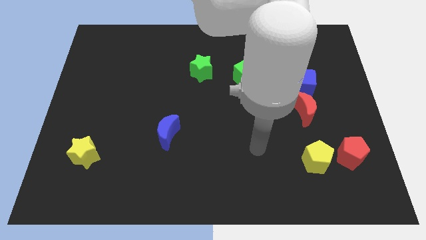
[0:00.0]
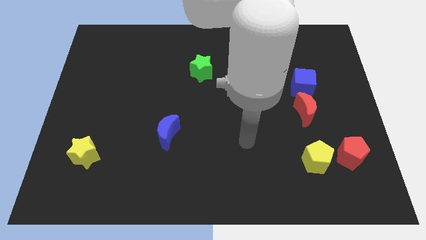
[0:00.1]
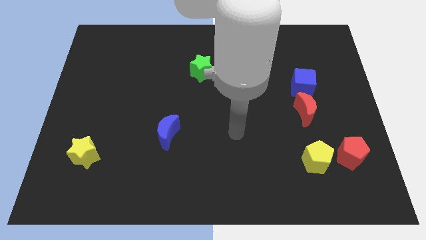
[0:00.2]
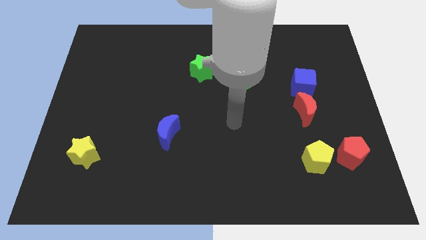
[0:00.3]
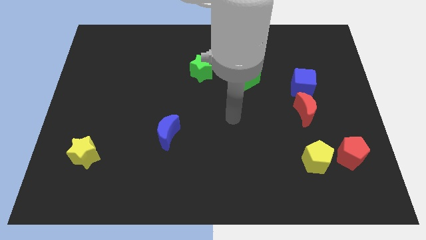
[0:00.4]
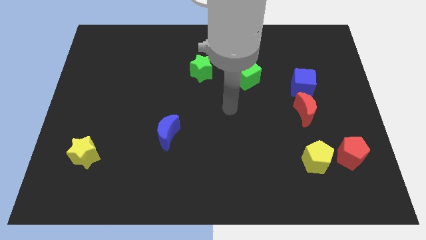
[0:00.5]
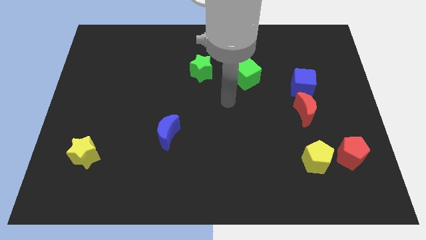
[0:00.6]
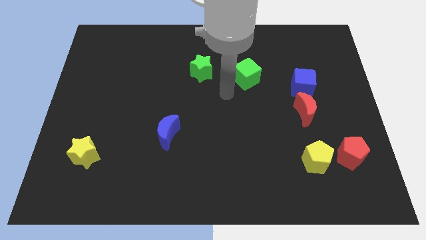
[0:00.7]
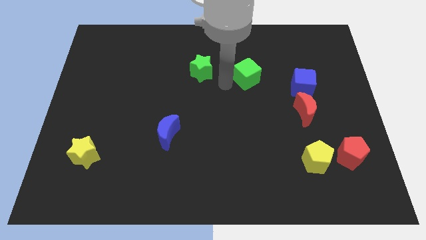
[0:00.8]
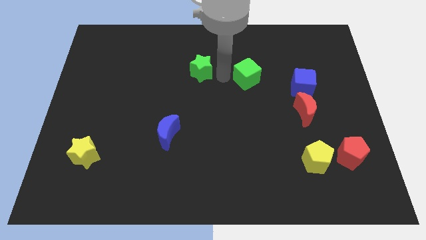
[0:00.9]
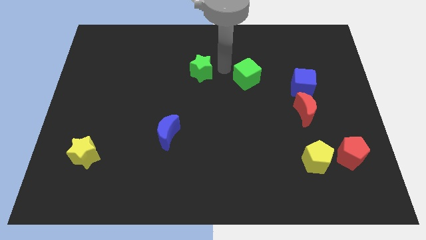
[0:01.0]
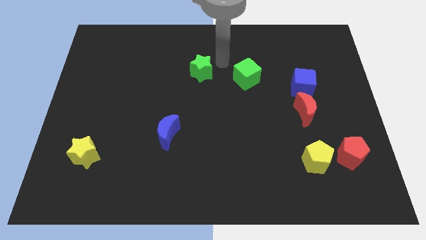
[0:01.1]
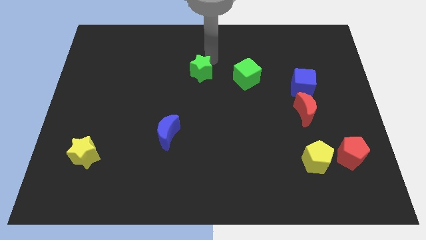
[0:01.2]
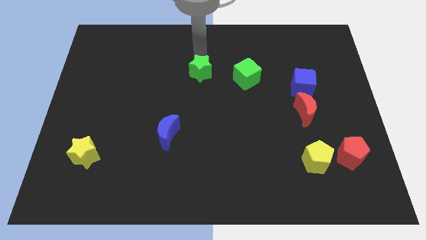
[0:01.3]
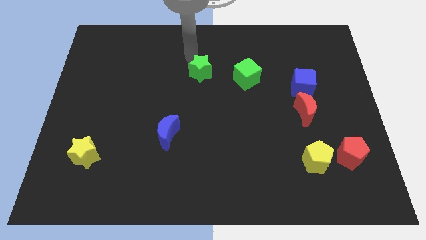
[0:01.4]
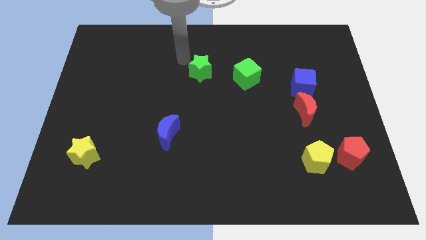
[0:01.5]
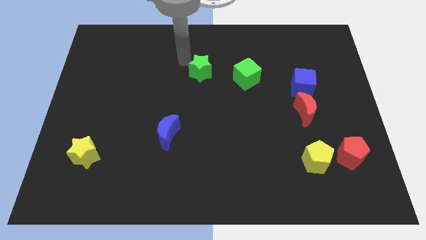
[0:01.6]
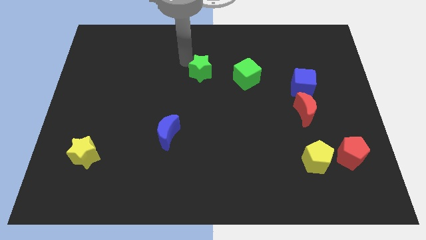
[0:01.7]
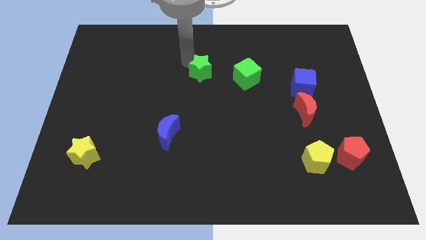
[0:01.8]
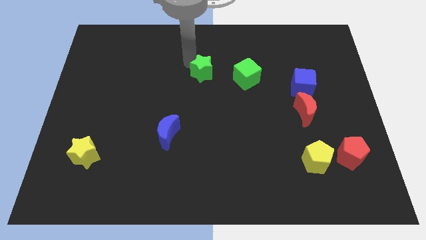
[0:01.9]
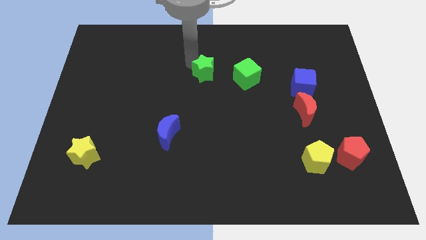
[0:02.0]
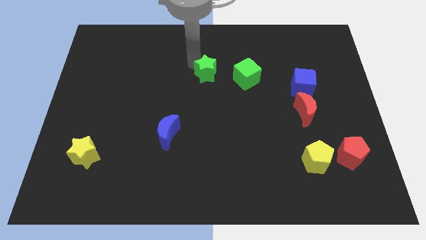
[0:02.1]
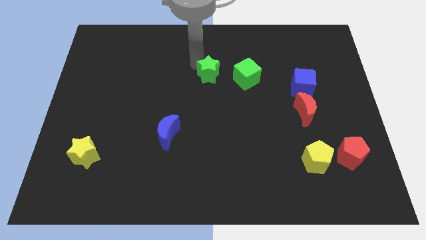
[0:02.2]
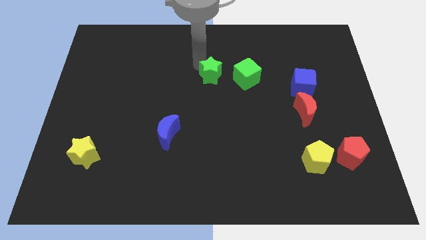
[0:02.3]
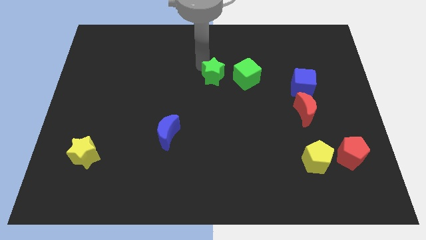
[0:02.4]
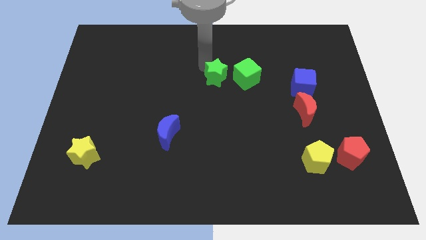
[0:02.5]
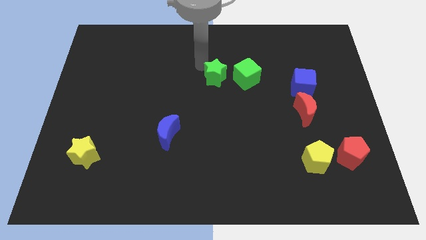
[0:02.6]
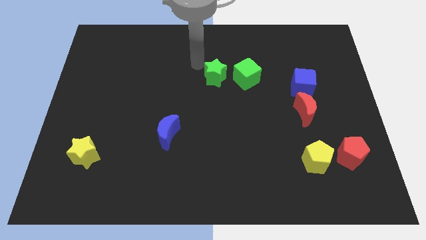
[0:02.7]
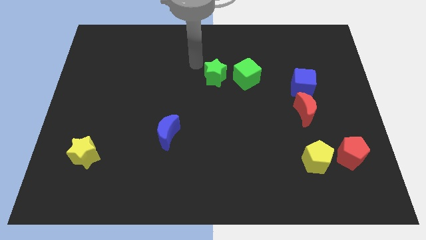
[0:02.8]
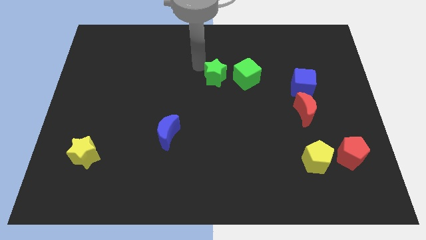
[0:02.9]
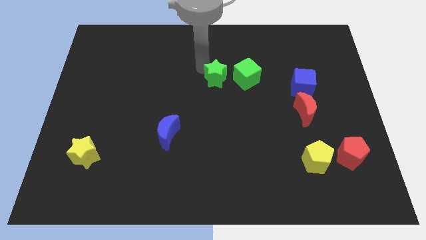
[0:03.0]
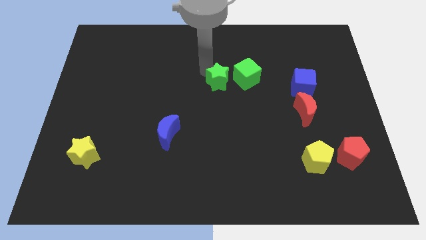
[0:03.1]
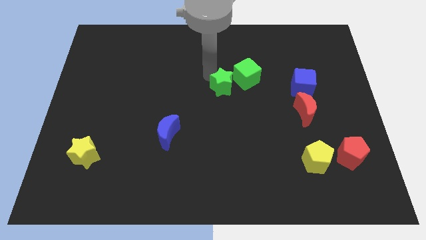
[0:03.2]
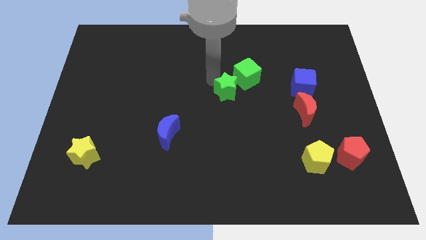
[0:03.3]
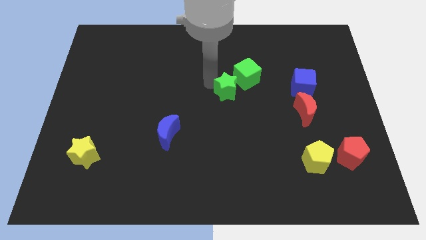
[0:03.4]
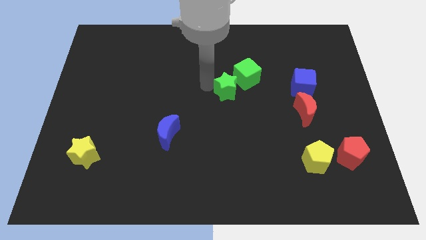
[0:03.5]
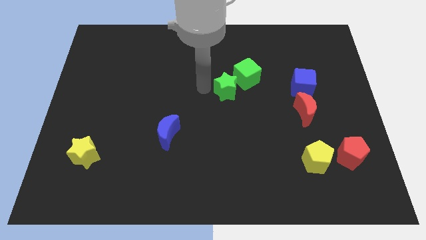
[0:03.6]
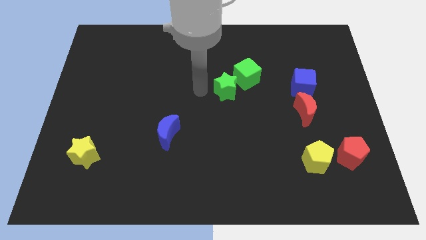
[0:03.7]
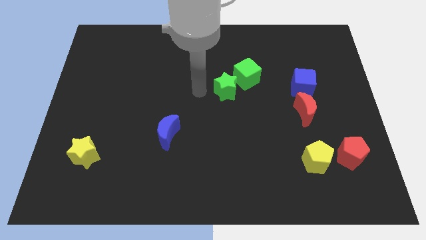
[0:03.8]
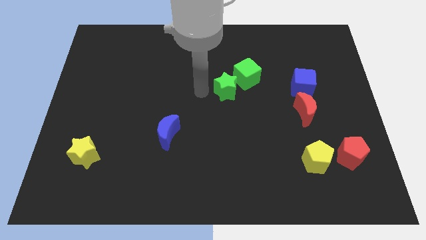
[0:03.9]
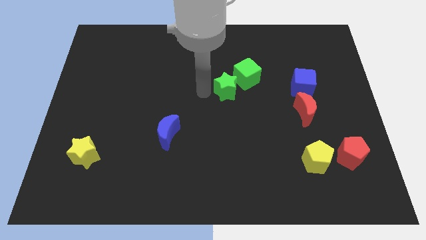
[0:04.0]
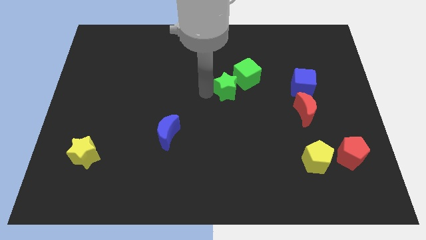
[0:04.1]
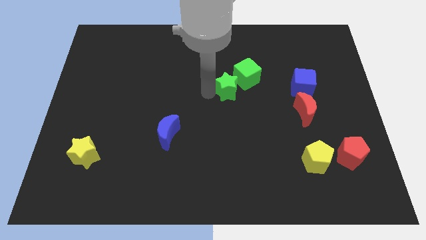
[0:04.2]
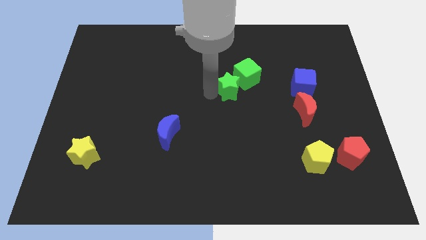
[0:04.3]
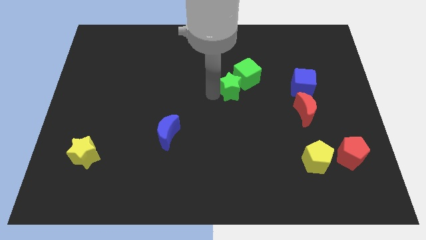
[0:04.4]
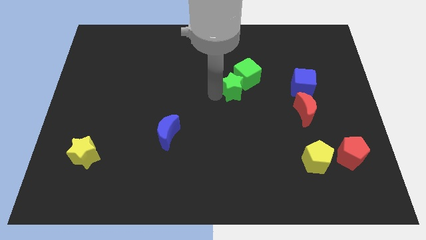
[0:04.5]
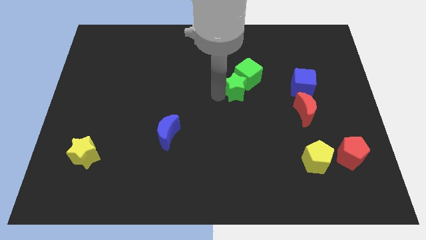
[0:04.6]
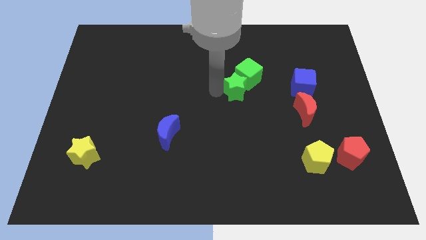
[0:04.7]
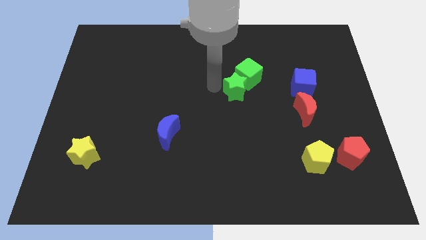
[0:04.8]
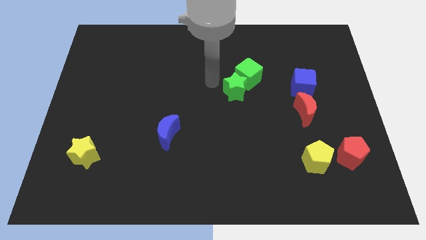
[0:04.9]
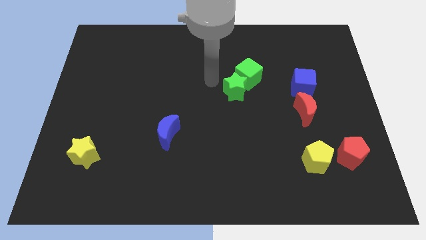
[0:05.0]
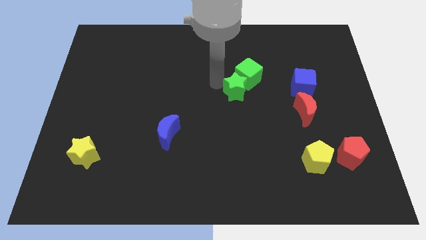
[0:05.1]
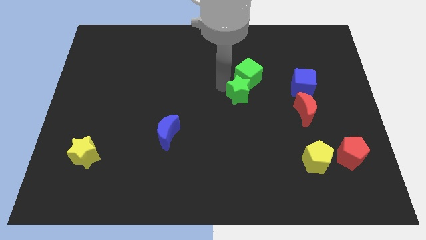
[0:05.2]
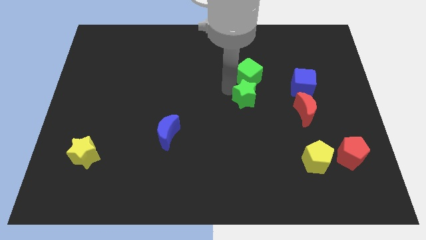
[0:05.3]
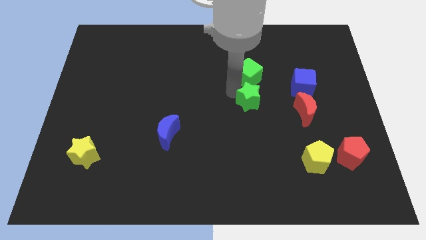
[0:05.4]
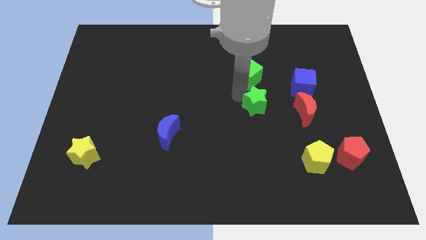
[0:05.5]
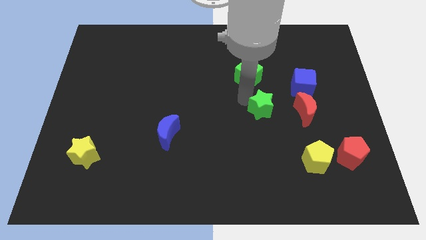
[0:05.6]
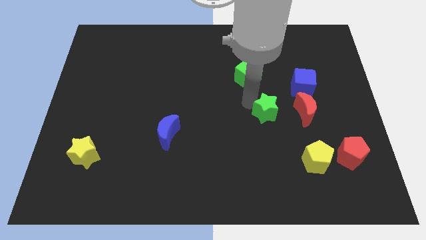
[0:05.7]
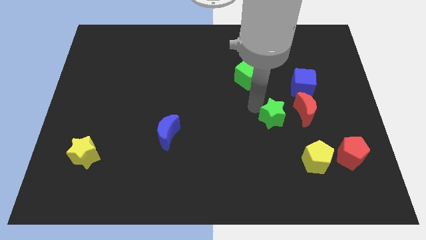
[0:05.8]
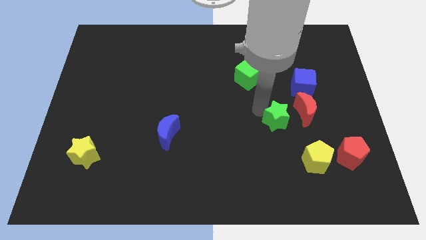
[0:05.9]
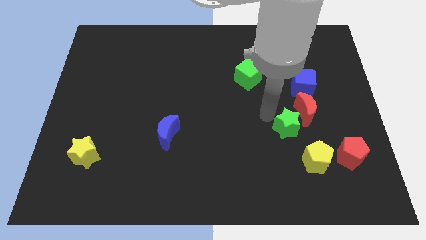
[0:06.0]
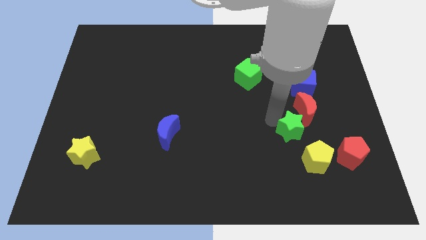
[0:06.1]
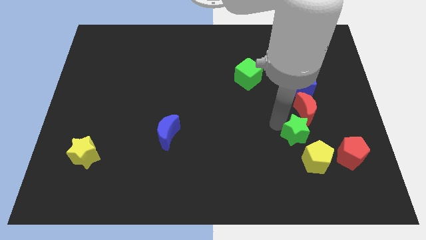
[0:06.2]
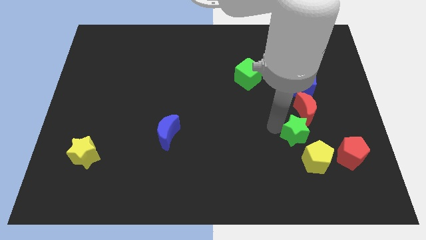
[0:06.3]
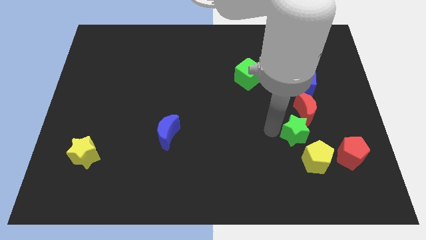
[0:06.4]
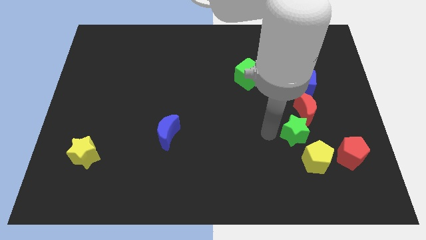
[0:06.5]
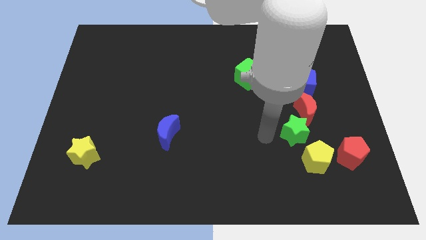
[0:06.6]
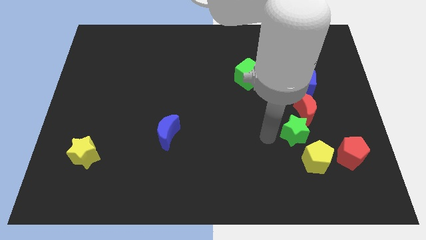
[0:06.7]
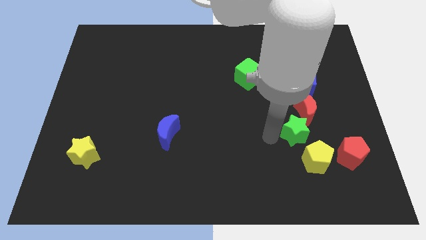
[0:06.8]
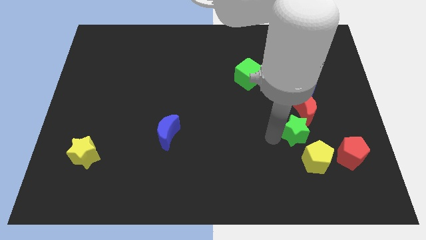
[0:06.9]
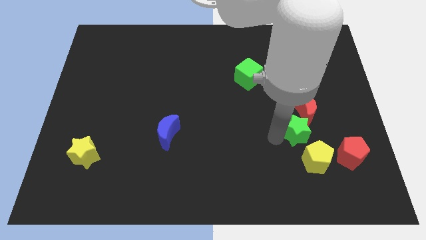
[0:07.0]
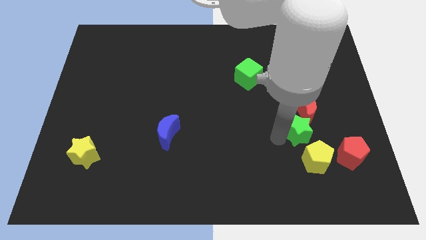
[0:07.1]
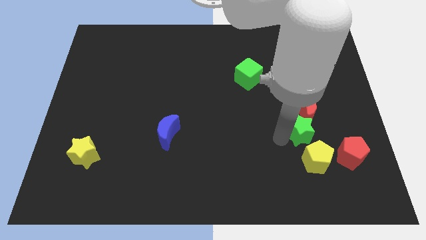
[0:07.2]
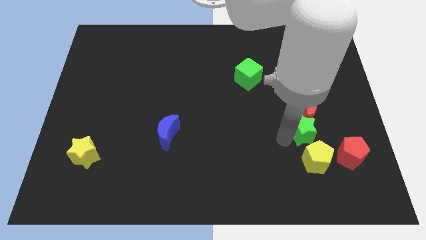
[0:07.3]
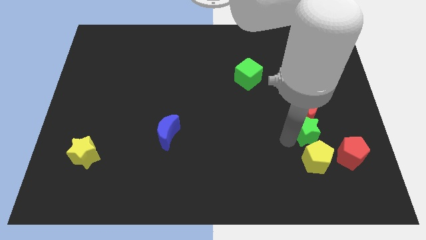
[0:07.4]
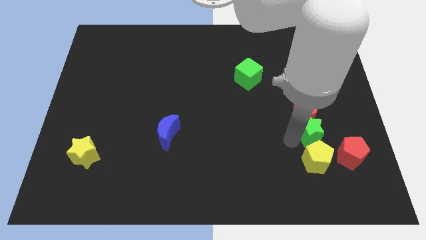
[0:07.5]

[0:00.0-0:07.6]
slide the green star diagonally down and to the right of the red moon
